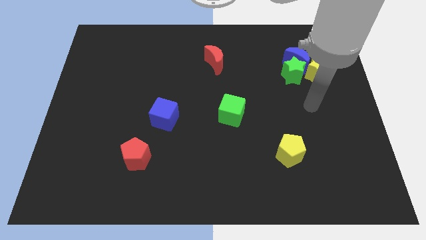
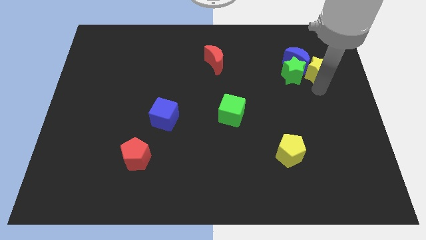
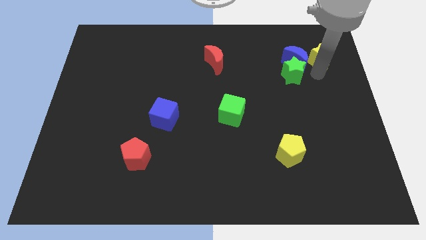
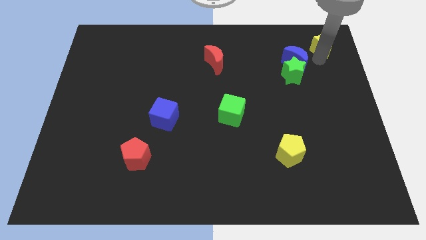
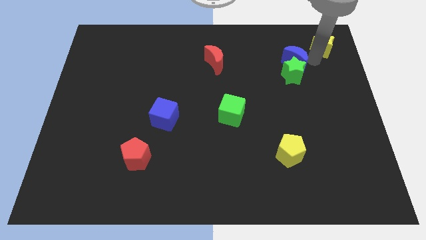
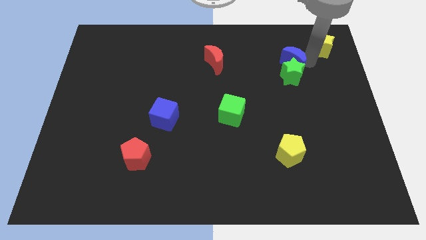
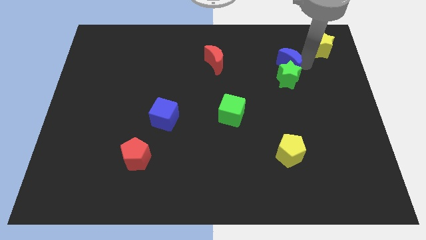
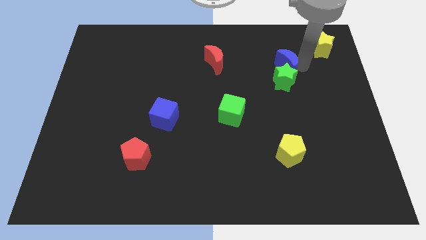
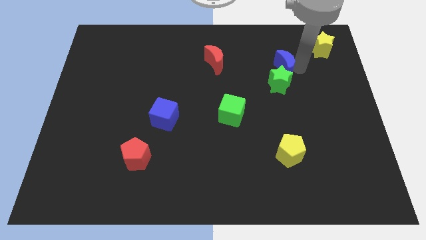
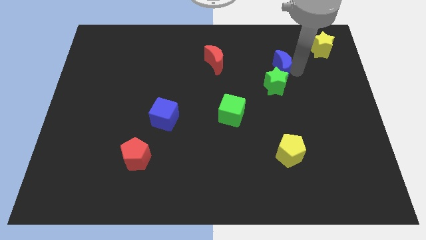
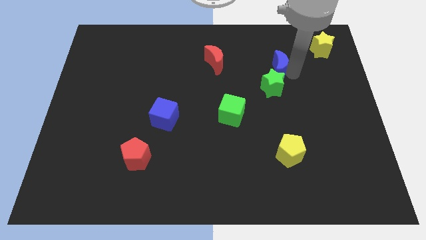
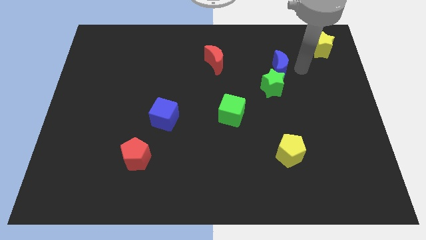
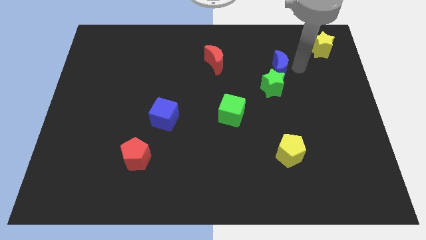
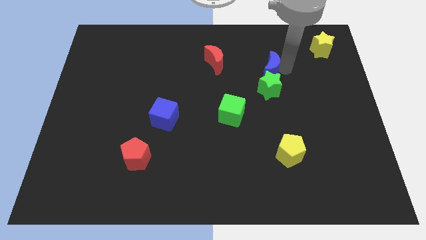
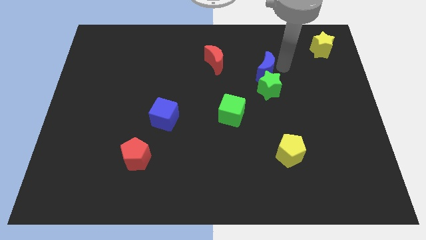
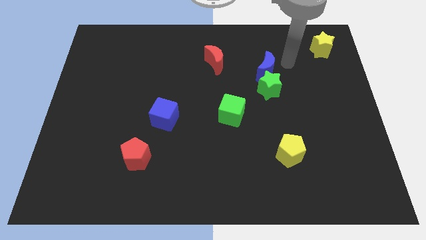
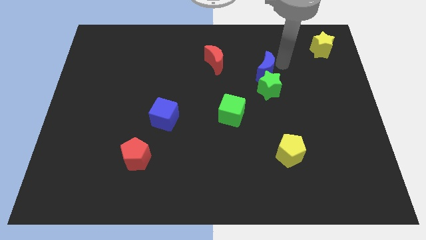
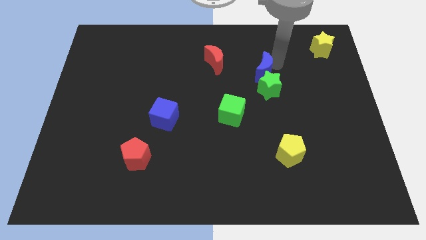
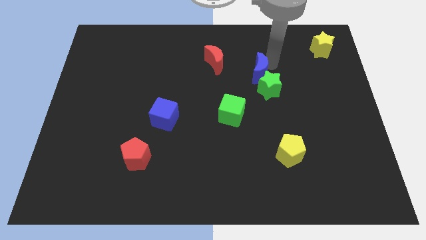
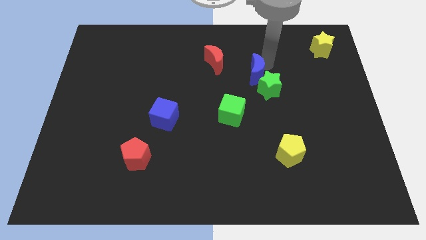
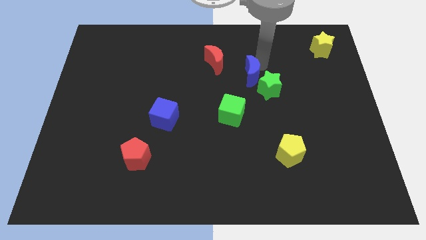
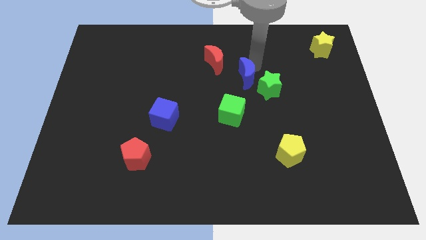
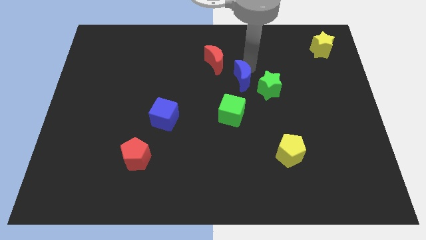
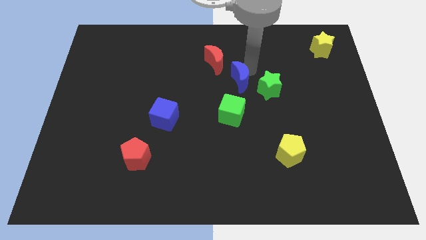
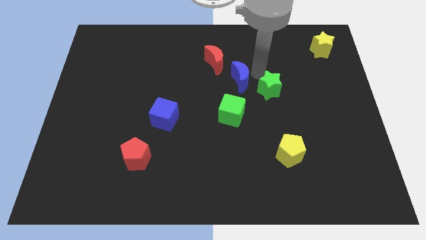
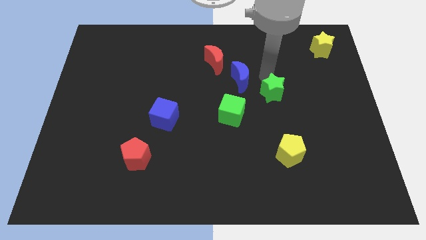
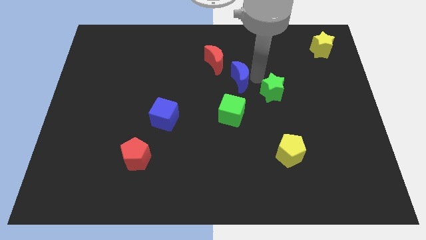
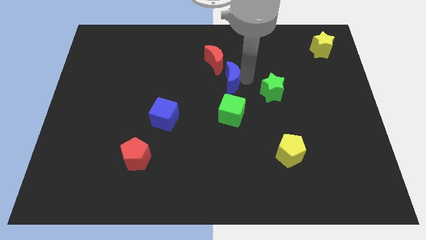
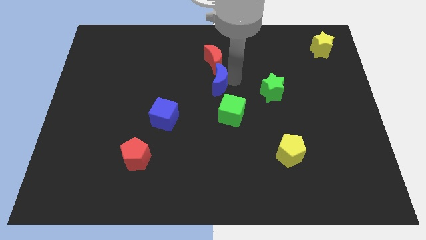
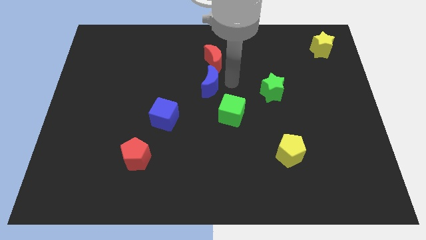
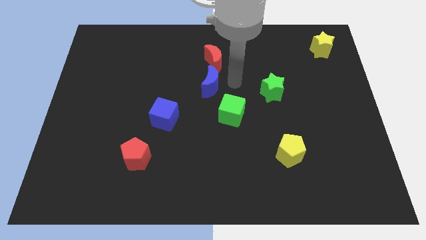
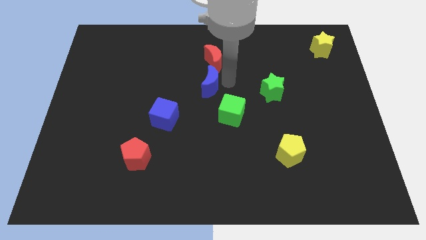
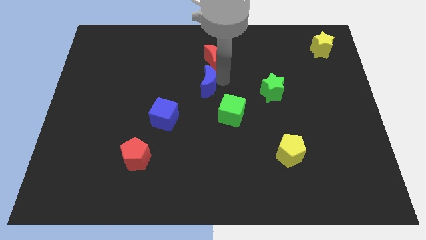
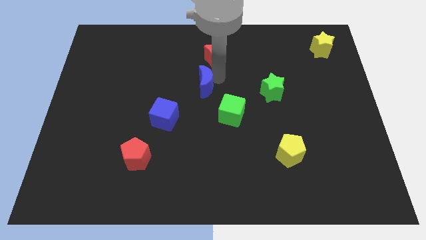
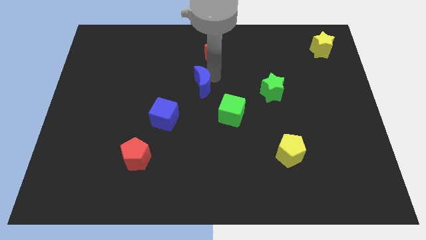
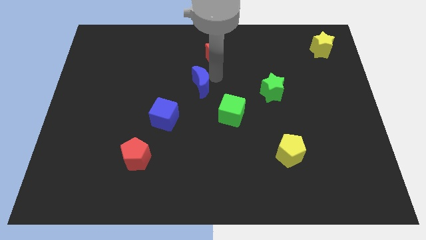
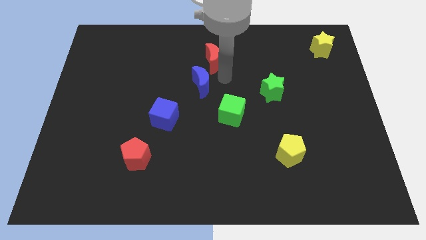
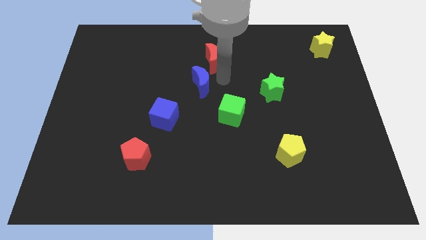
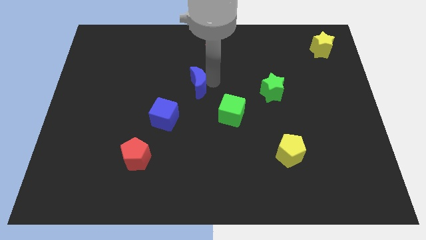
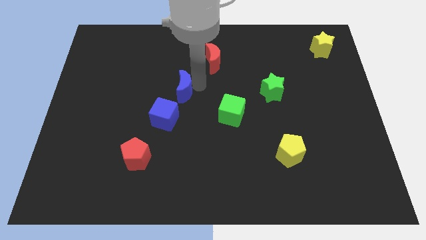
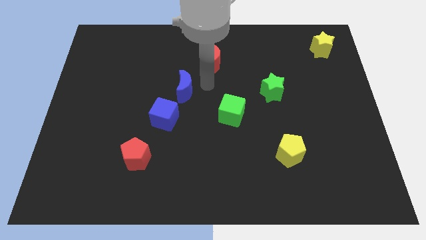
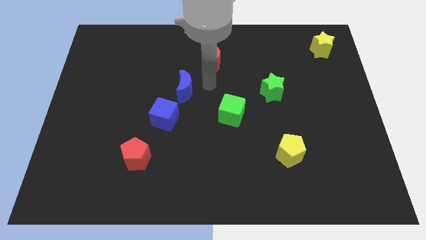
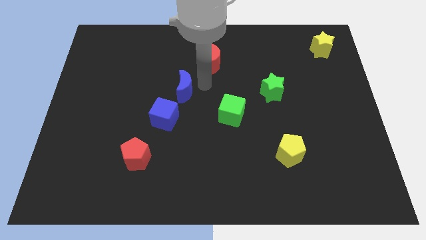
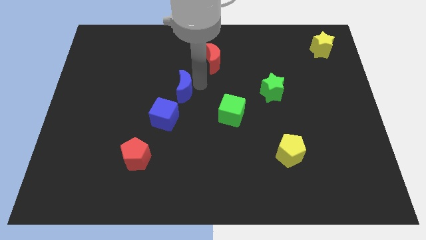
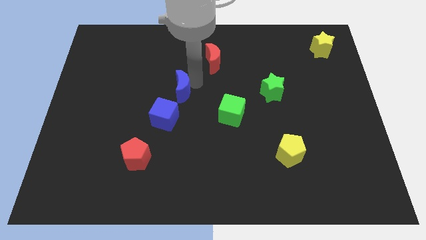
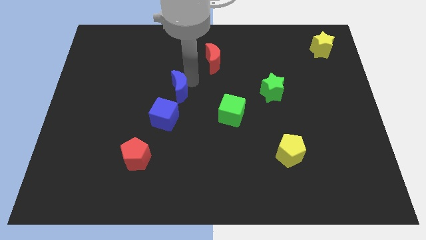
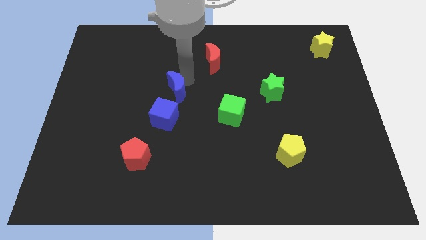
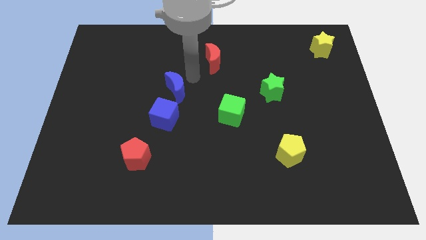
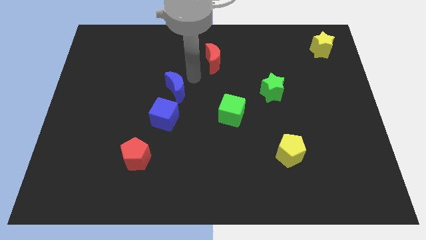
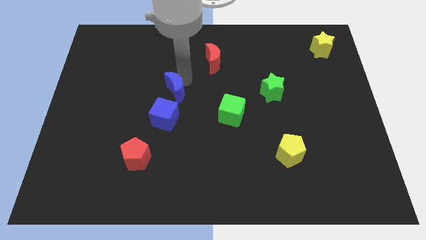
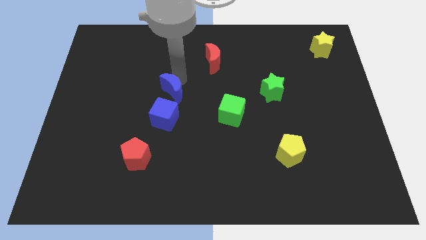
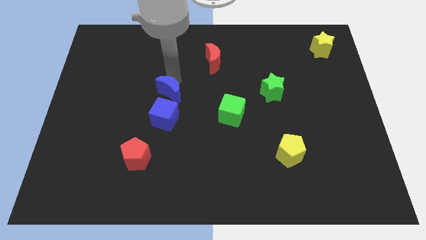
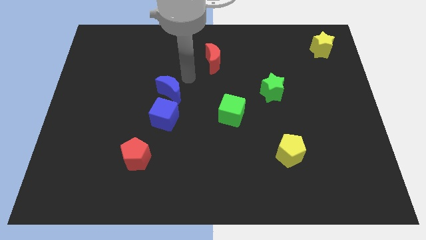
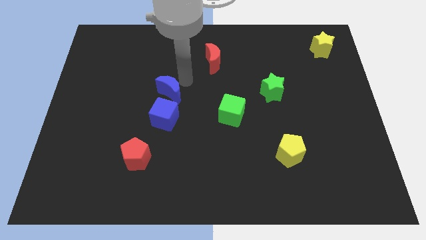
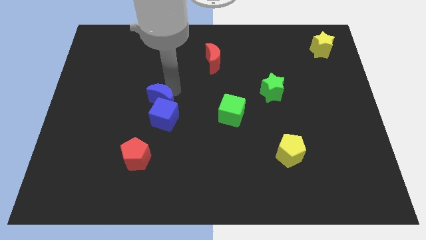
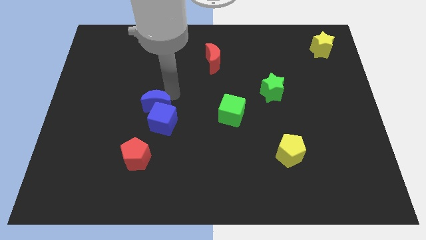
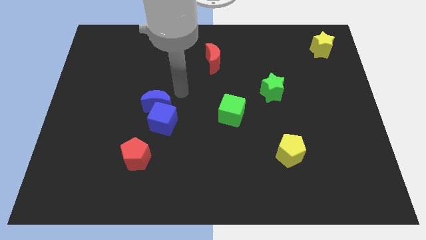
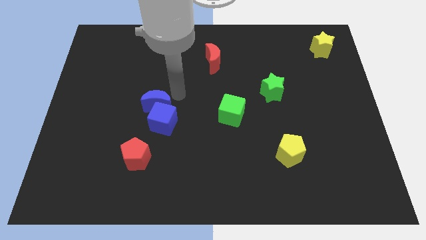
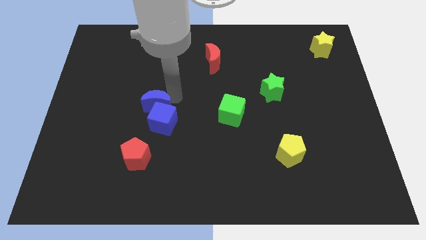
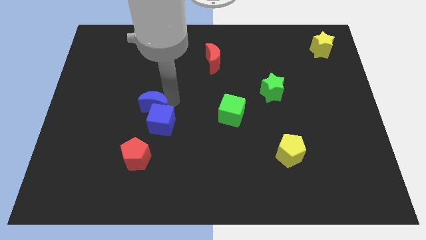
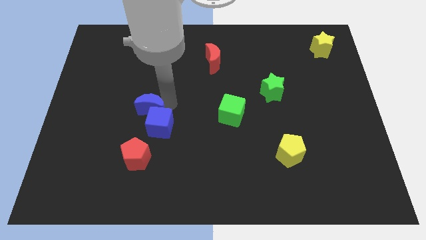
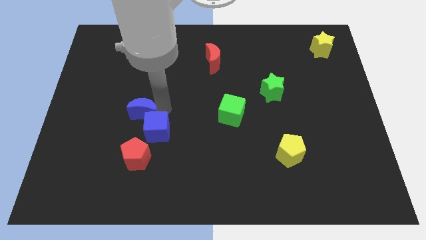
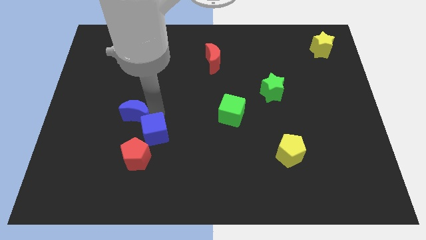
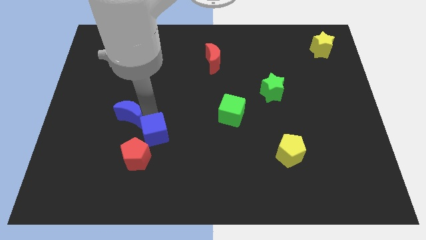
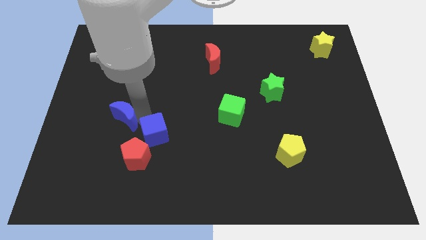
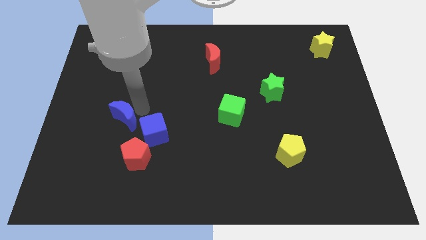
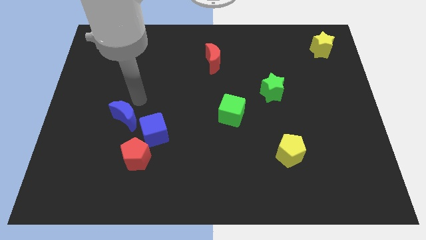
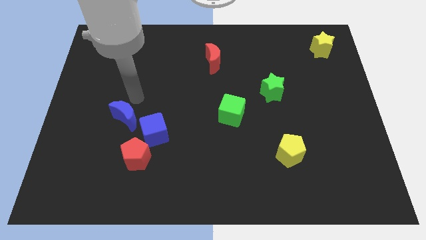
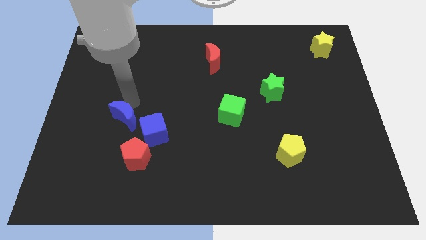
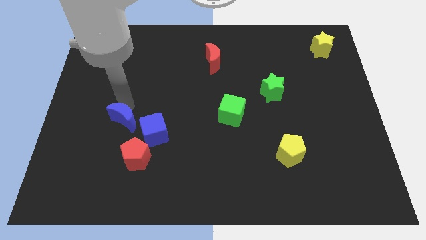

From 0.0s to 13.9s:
move the blue moon diagonally up and to the left of the red pentagon
